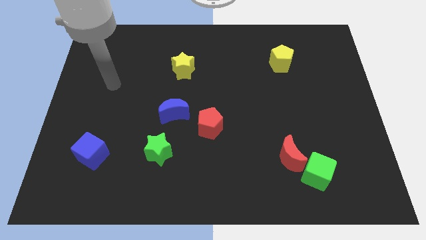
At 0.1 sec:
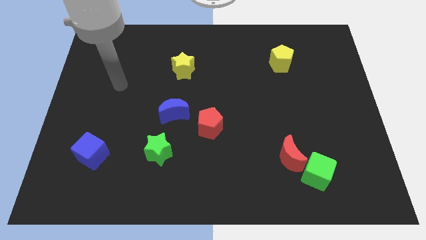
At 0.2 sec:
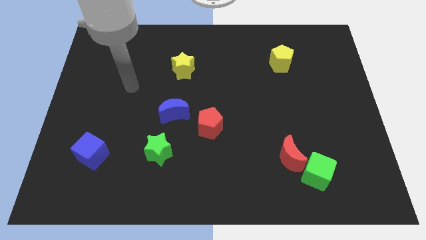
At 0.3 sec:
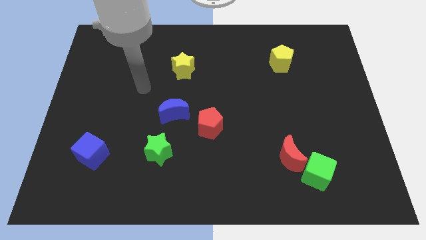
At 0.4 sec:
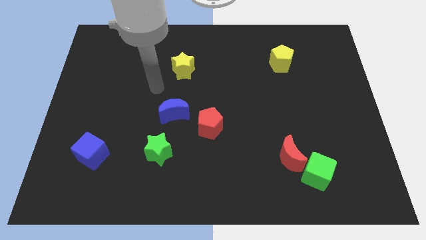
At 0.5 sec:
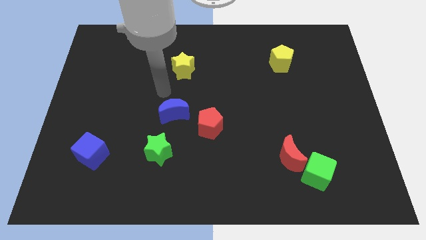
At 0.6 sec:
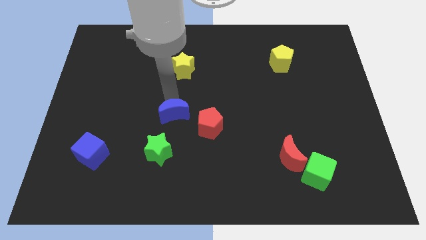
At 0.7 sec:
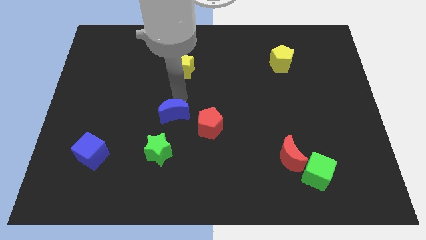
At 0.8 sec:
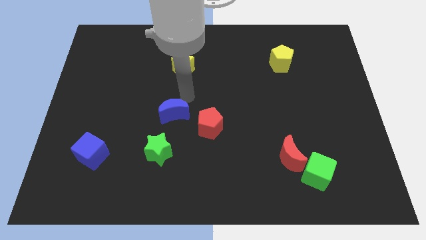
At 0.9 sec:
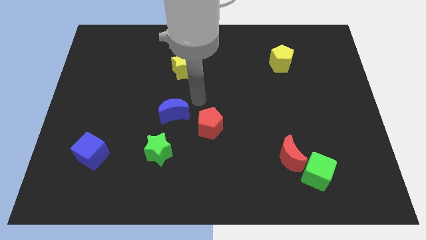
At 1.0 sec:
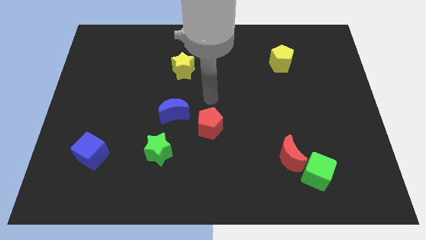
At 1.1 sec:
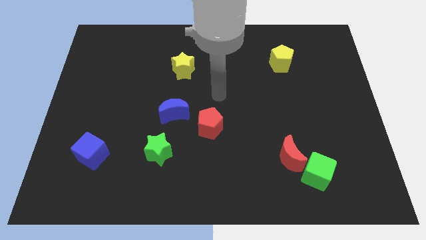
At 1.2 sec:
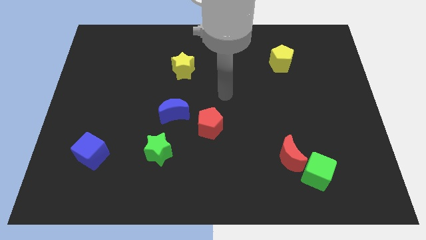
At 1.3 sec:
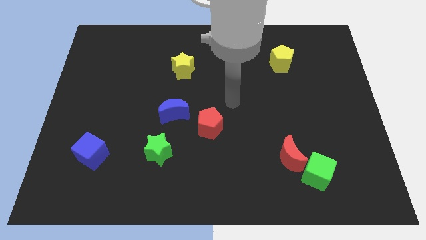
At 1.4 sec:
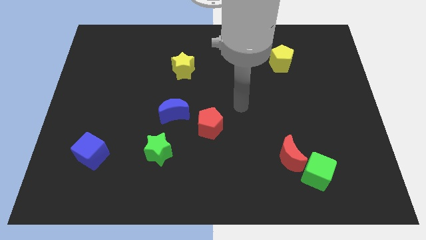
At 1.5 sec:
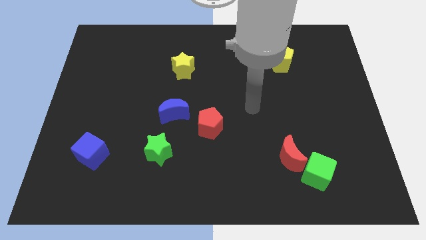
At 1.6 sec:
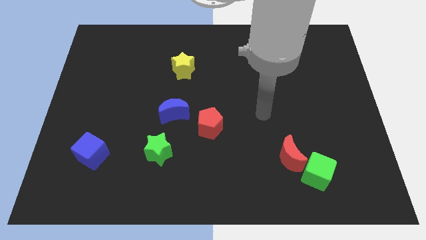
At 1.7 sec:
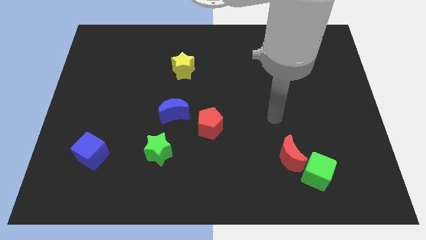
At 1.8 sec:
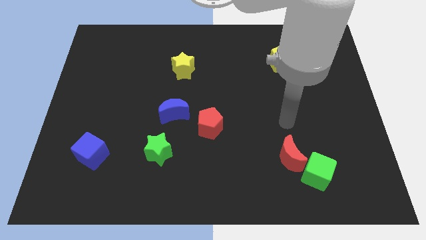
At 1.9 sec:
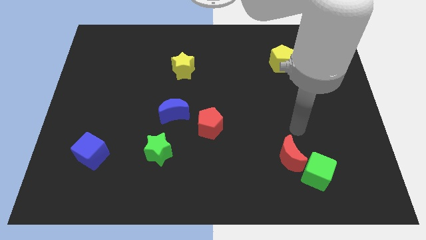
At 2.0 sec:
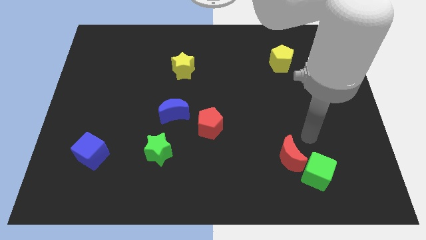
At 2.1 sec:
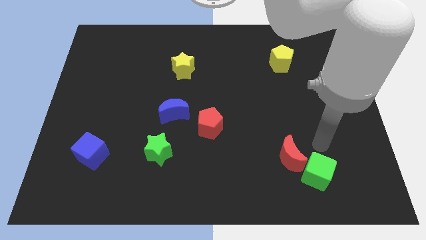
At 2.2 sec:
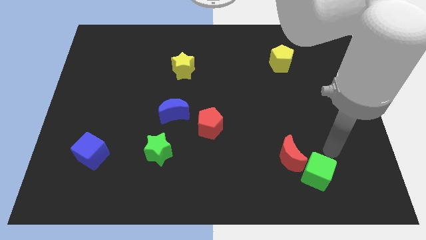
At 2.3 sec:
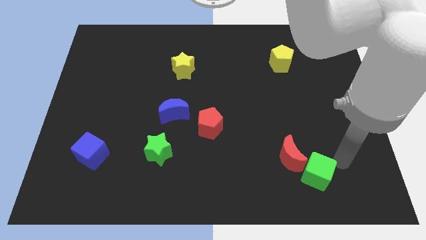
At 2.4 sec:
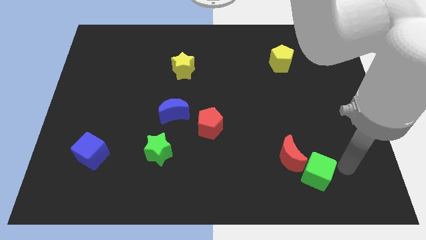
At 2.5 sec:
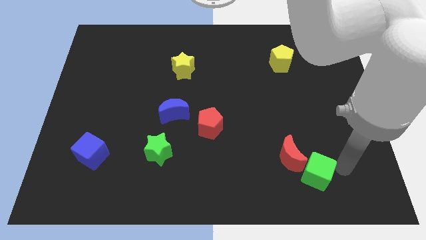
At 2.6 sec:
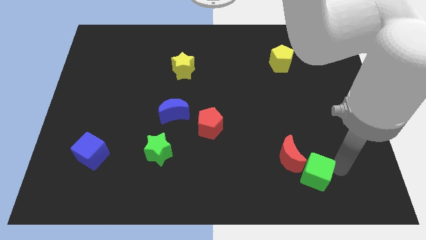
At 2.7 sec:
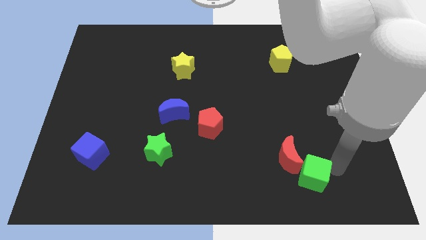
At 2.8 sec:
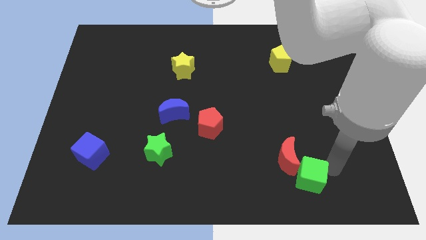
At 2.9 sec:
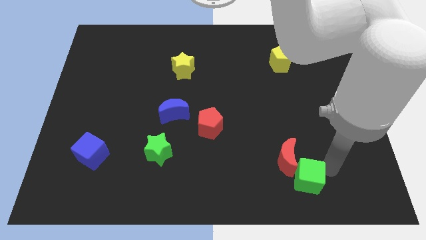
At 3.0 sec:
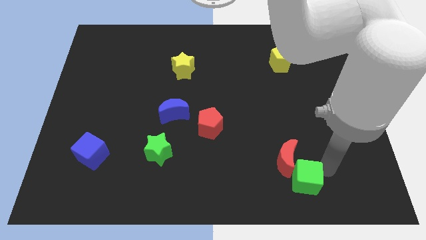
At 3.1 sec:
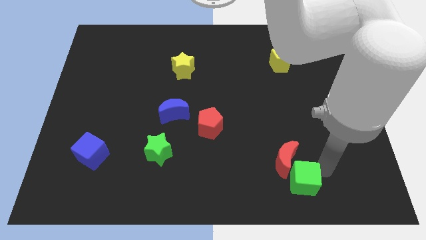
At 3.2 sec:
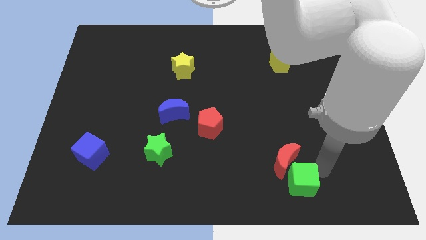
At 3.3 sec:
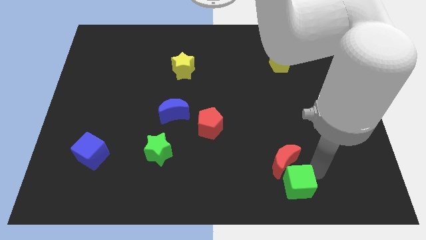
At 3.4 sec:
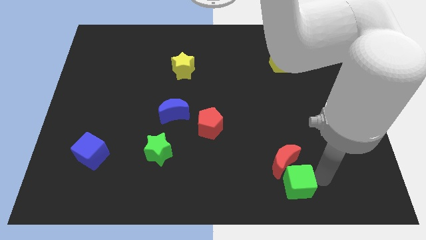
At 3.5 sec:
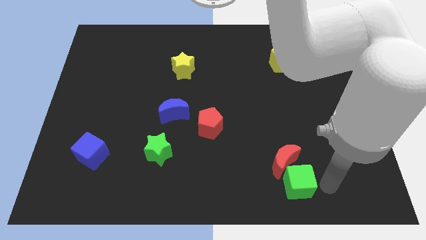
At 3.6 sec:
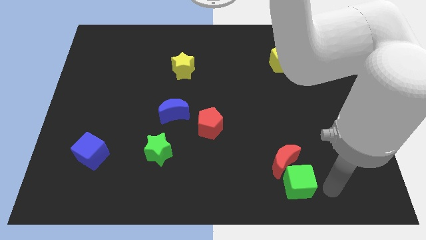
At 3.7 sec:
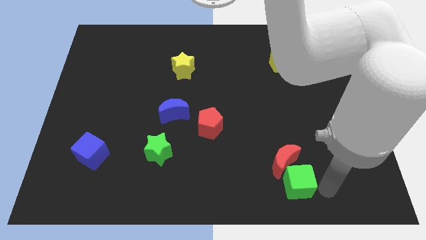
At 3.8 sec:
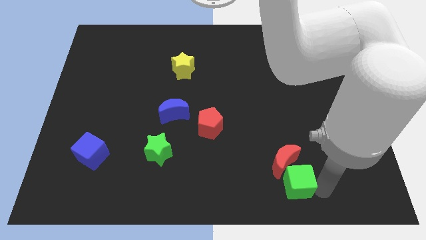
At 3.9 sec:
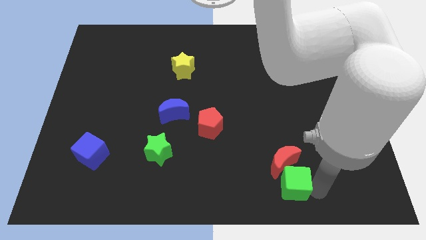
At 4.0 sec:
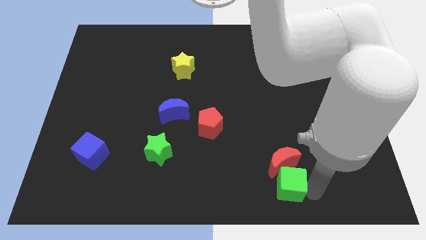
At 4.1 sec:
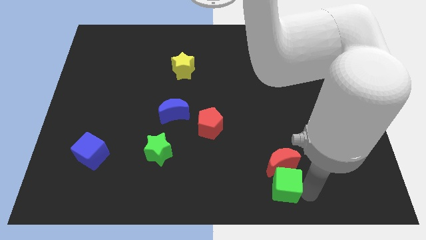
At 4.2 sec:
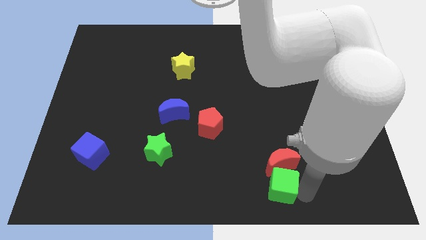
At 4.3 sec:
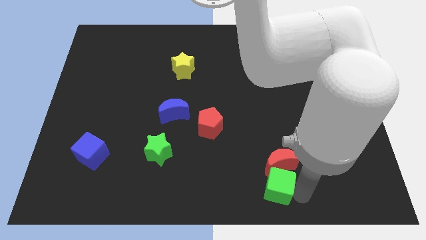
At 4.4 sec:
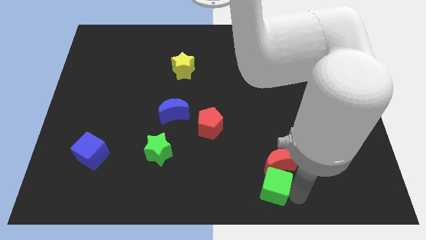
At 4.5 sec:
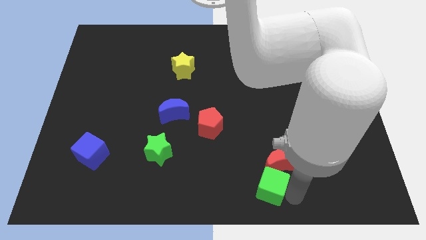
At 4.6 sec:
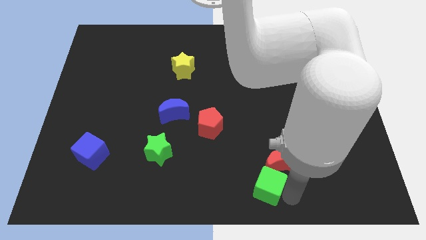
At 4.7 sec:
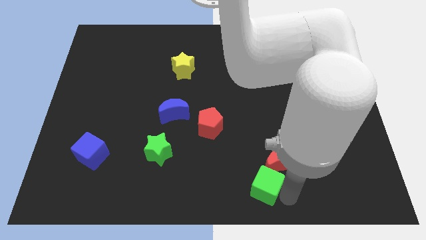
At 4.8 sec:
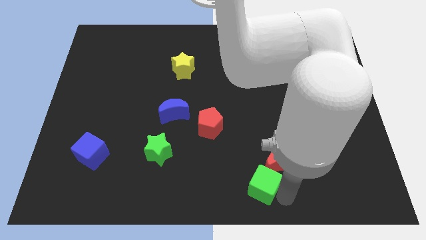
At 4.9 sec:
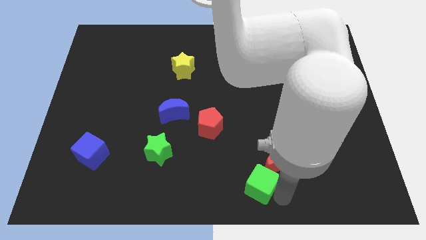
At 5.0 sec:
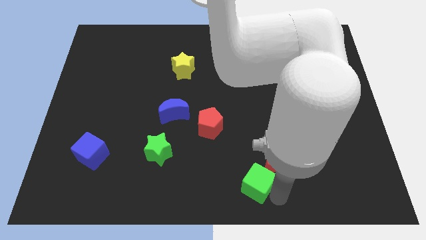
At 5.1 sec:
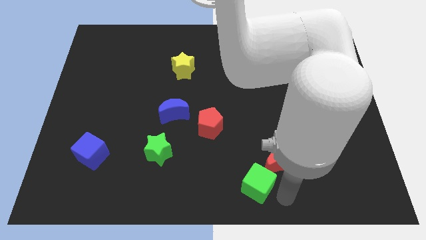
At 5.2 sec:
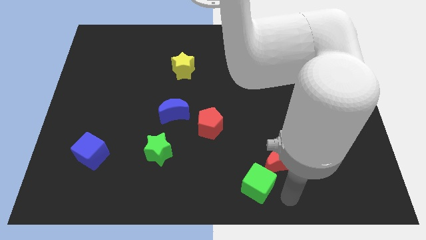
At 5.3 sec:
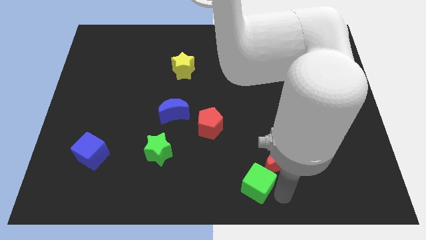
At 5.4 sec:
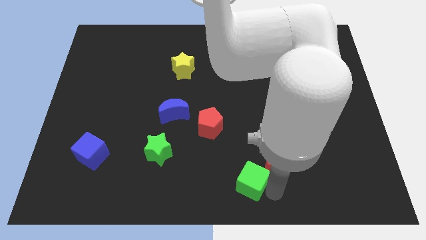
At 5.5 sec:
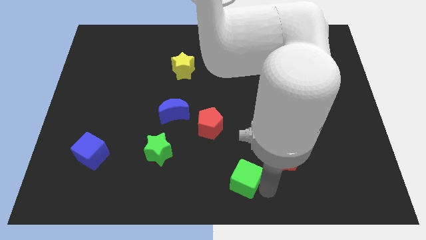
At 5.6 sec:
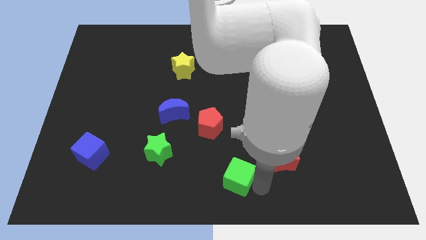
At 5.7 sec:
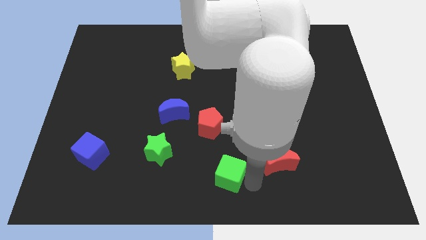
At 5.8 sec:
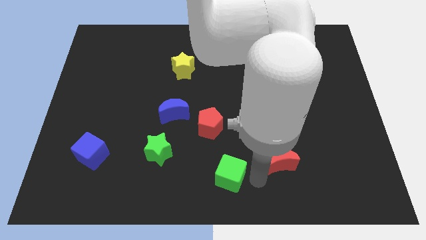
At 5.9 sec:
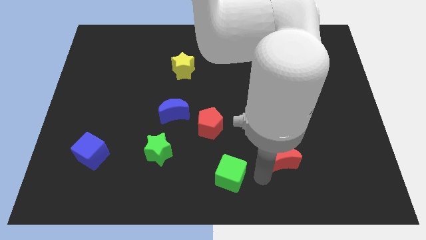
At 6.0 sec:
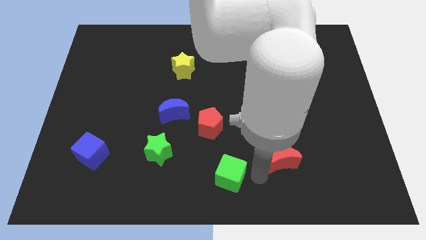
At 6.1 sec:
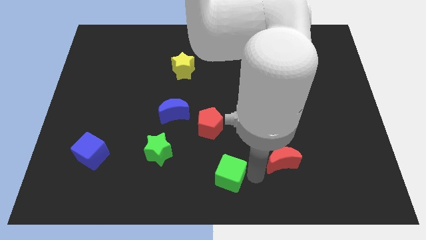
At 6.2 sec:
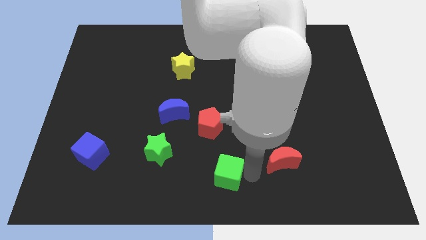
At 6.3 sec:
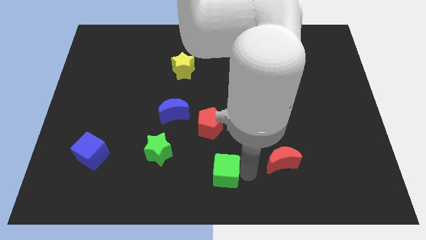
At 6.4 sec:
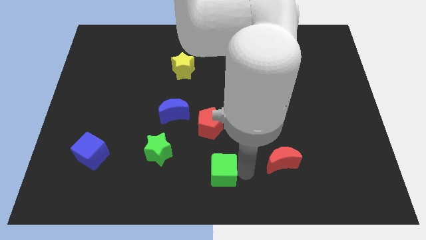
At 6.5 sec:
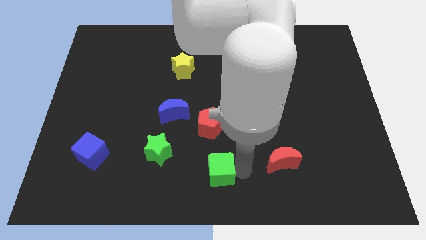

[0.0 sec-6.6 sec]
push the green cube left

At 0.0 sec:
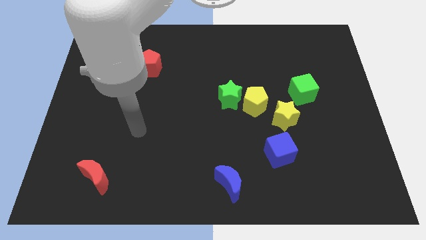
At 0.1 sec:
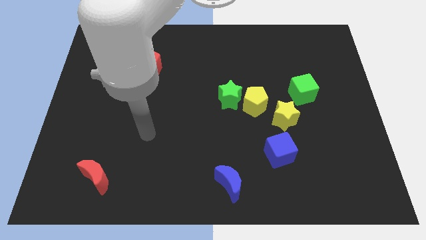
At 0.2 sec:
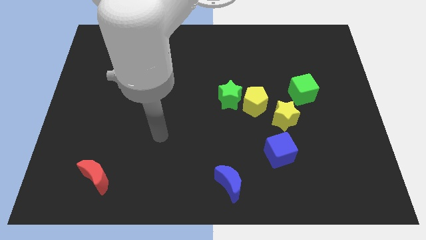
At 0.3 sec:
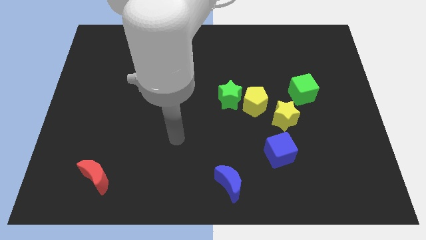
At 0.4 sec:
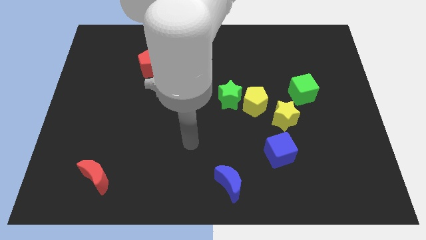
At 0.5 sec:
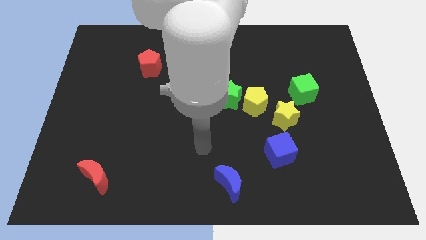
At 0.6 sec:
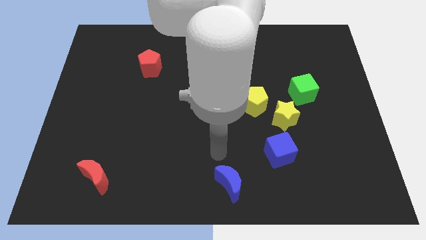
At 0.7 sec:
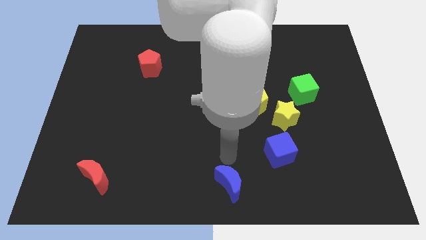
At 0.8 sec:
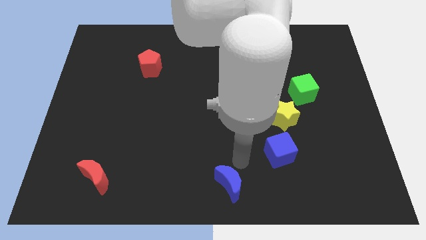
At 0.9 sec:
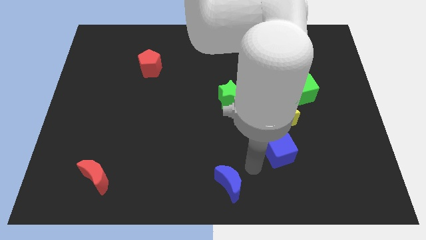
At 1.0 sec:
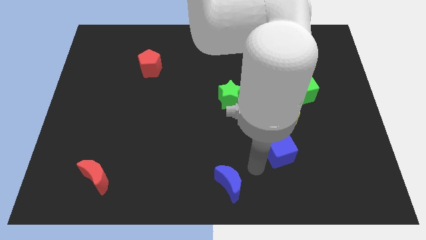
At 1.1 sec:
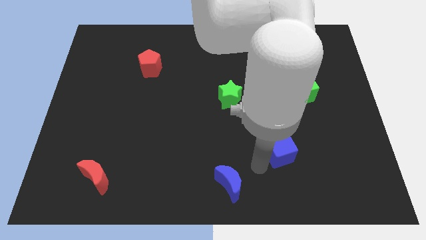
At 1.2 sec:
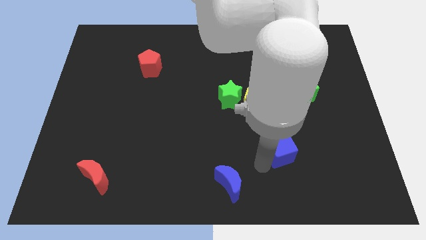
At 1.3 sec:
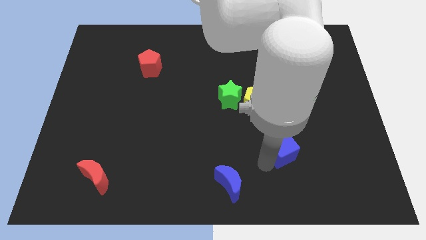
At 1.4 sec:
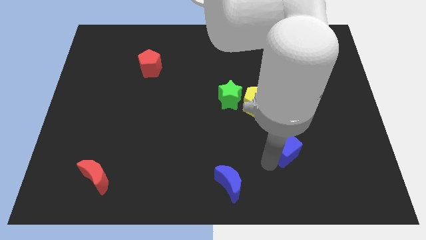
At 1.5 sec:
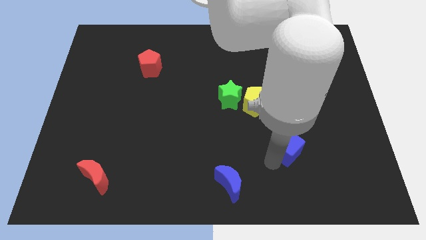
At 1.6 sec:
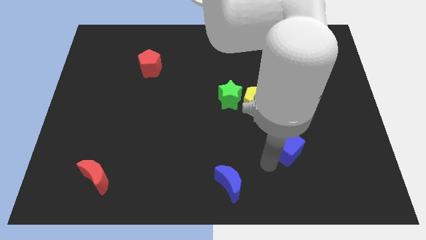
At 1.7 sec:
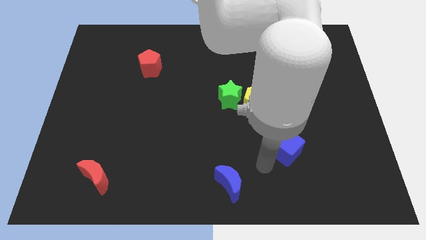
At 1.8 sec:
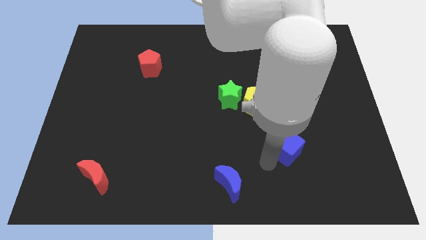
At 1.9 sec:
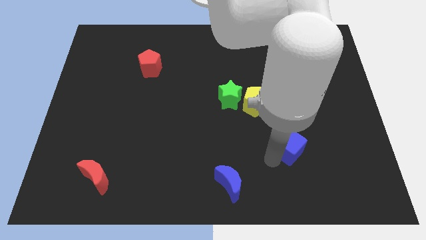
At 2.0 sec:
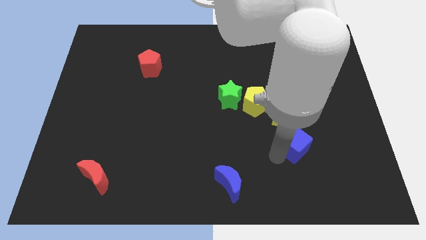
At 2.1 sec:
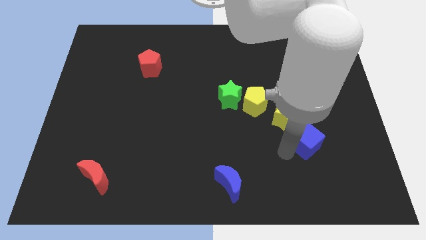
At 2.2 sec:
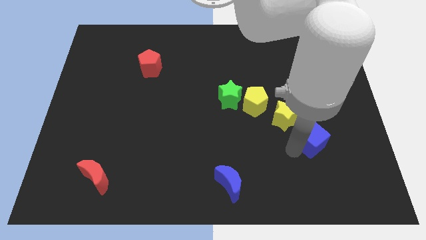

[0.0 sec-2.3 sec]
move the blue cube a bit upwards and right diagonally
